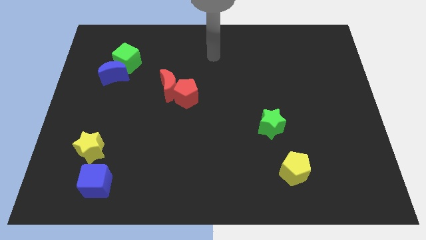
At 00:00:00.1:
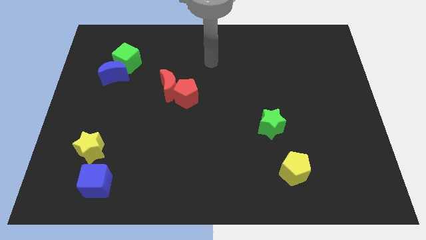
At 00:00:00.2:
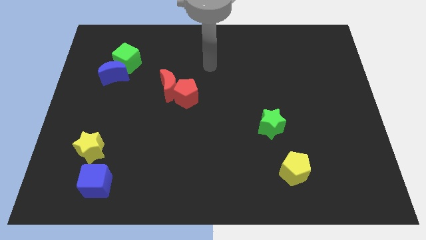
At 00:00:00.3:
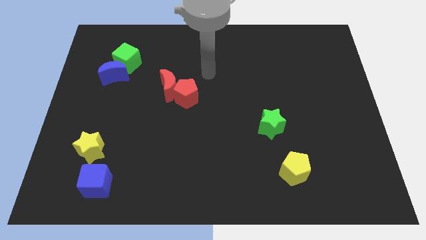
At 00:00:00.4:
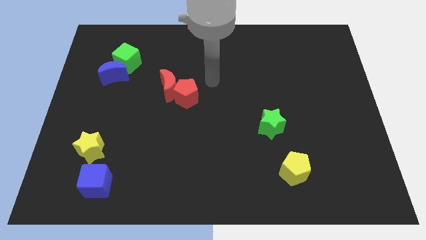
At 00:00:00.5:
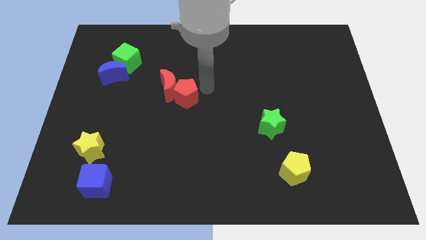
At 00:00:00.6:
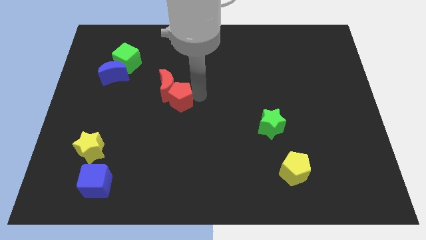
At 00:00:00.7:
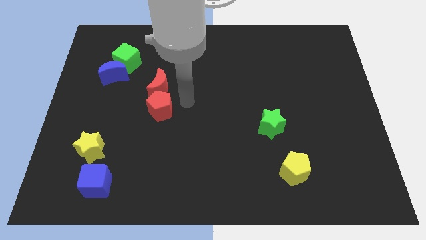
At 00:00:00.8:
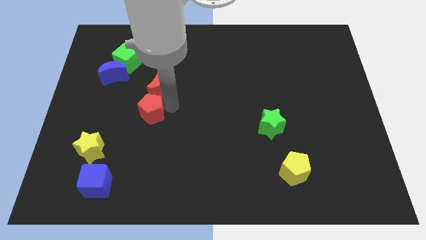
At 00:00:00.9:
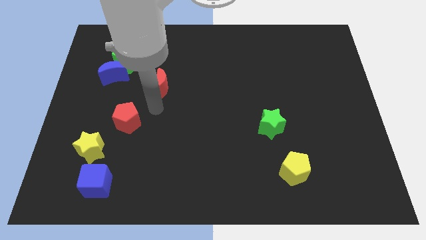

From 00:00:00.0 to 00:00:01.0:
pull the red moon apart from the red pentagon

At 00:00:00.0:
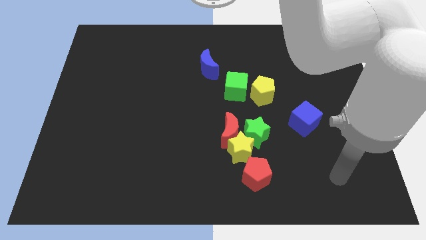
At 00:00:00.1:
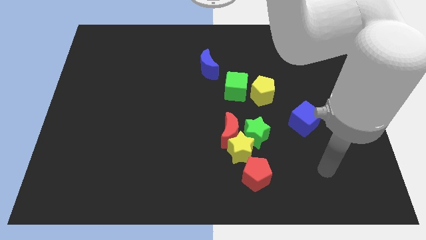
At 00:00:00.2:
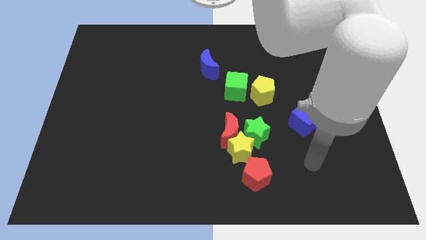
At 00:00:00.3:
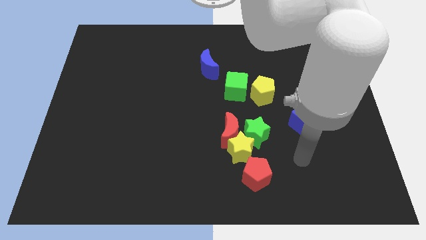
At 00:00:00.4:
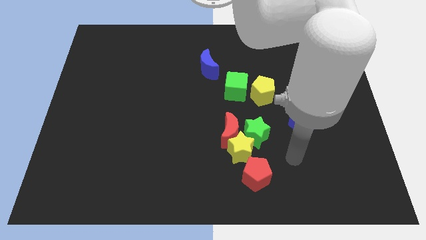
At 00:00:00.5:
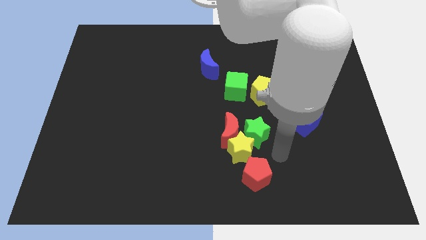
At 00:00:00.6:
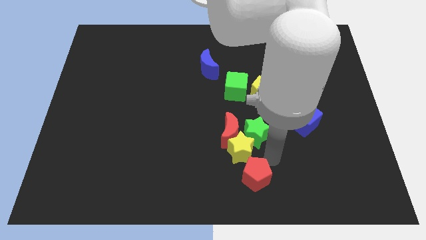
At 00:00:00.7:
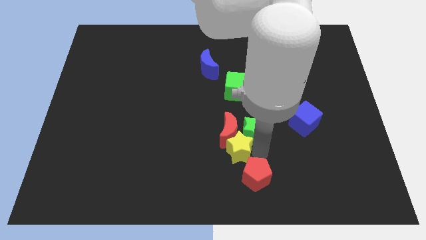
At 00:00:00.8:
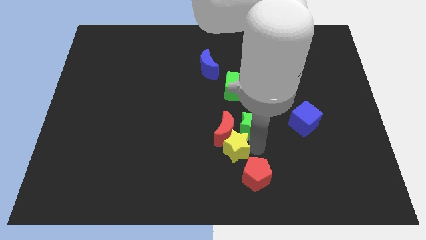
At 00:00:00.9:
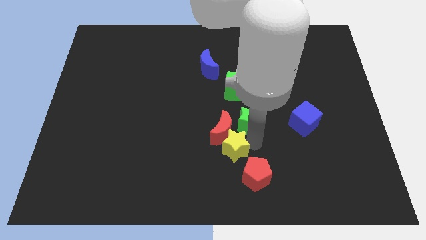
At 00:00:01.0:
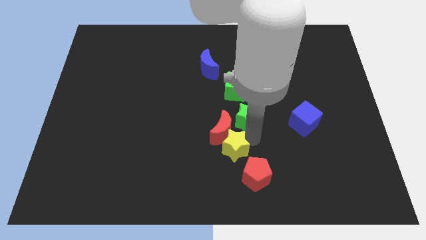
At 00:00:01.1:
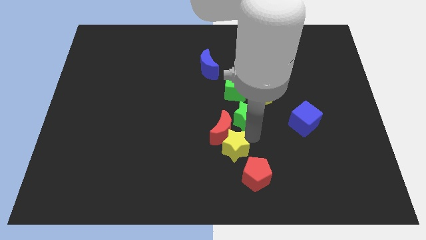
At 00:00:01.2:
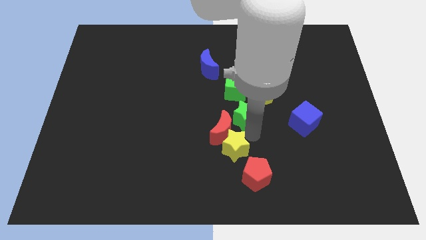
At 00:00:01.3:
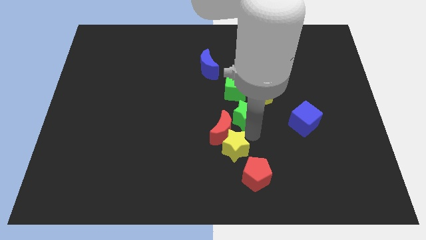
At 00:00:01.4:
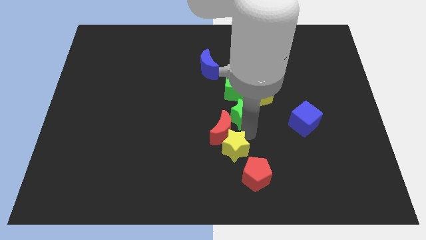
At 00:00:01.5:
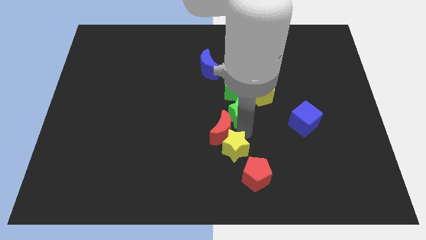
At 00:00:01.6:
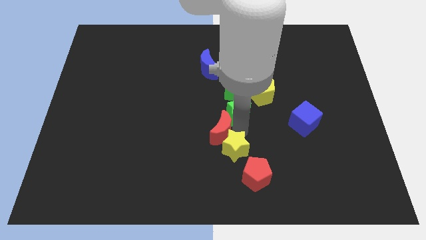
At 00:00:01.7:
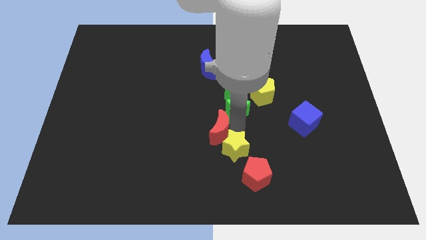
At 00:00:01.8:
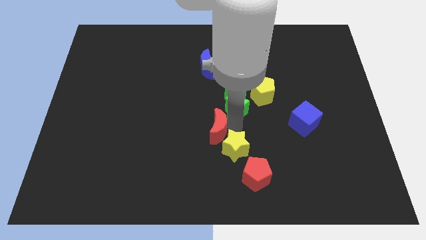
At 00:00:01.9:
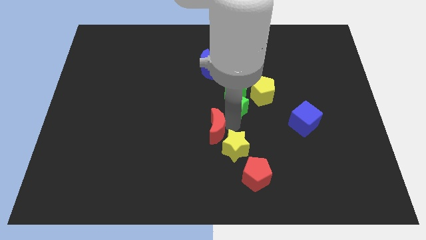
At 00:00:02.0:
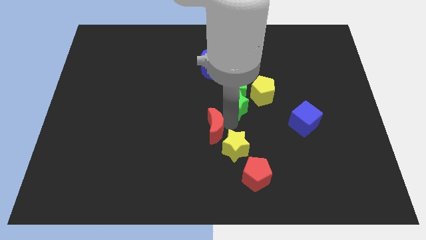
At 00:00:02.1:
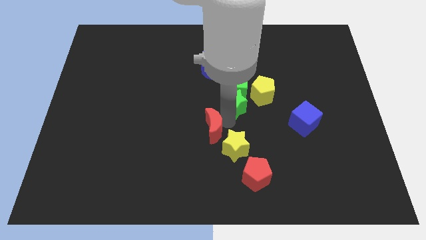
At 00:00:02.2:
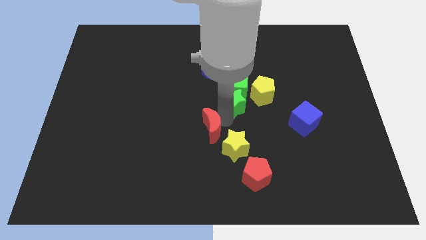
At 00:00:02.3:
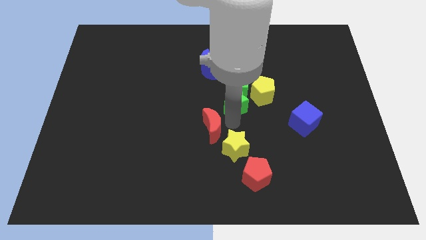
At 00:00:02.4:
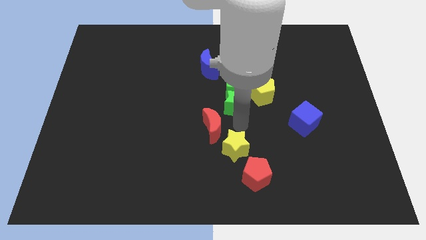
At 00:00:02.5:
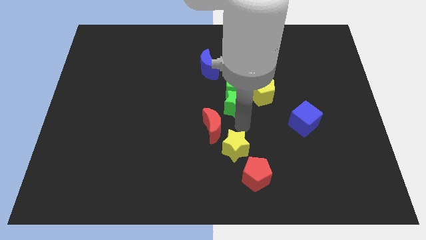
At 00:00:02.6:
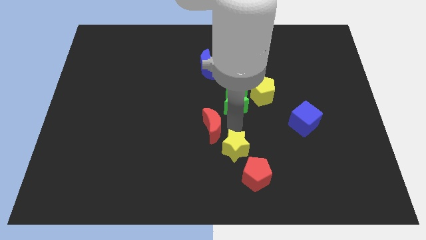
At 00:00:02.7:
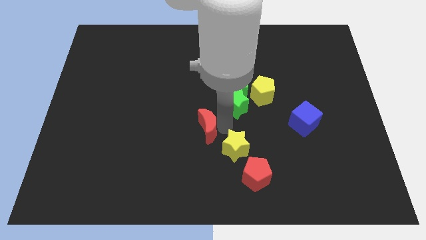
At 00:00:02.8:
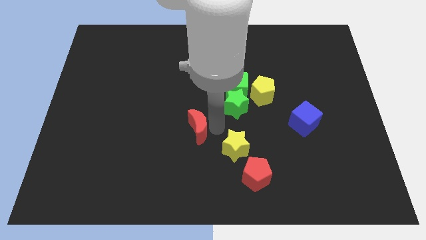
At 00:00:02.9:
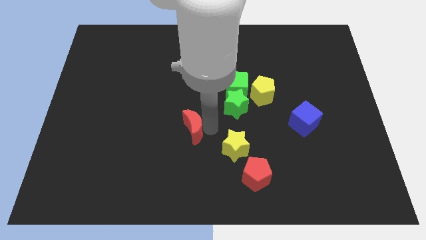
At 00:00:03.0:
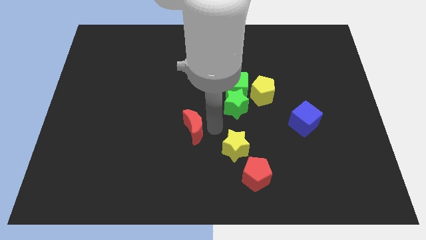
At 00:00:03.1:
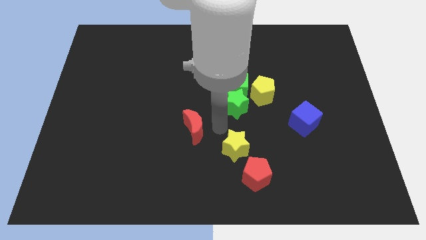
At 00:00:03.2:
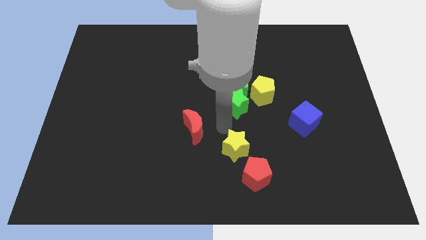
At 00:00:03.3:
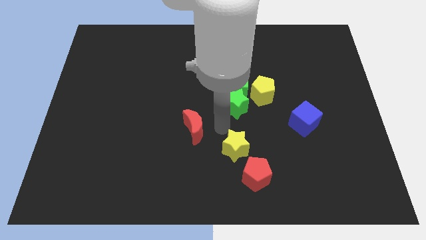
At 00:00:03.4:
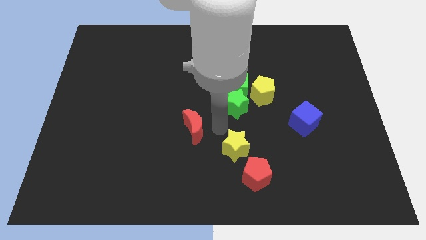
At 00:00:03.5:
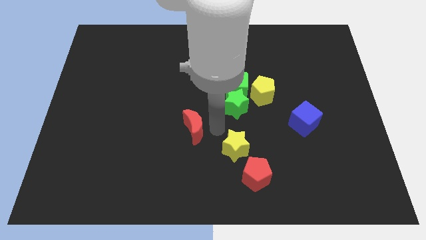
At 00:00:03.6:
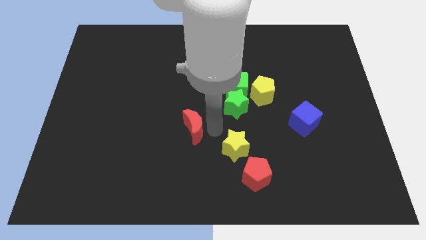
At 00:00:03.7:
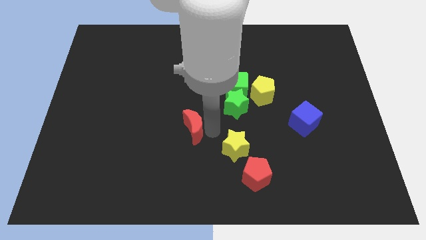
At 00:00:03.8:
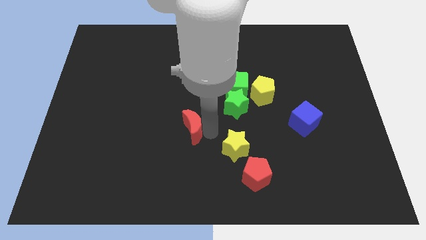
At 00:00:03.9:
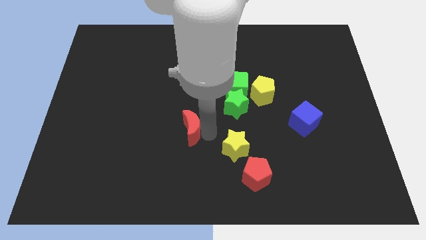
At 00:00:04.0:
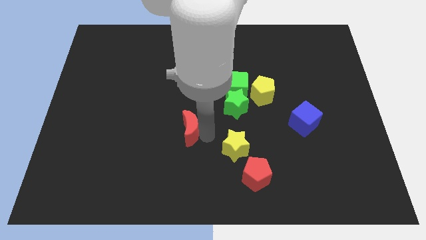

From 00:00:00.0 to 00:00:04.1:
separate the red moon from the yellow star and green star

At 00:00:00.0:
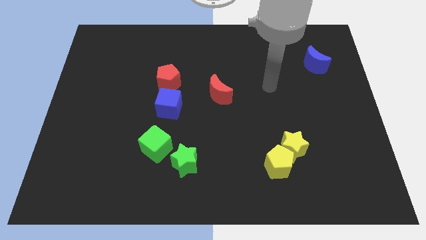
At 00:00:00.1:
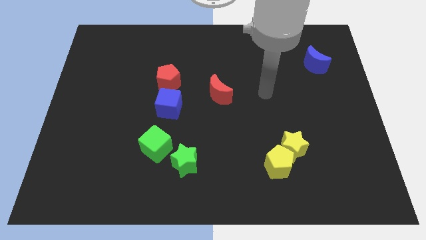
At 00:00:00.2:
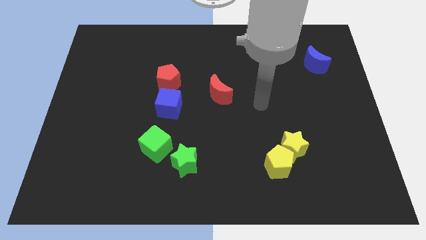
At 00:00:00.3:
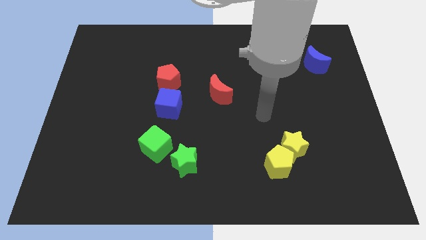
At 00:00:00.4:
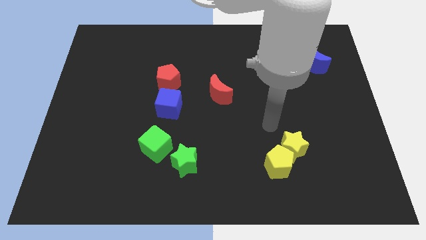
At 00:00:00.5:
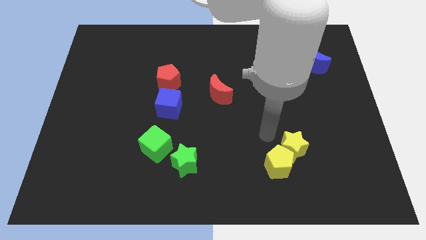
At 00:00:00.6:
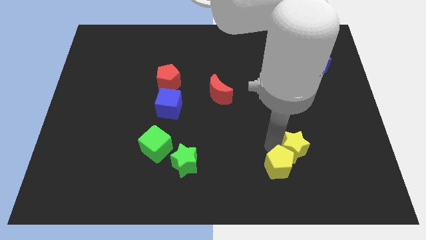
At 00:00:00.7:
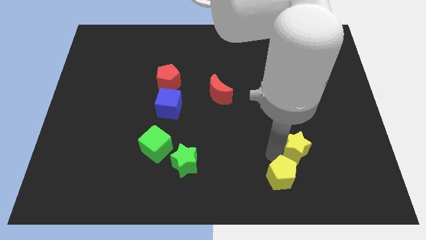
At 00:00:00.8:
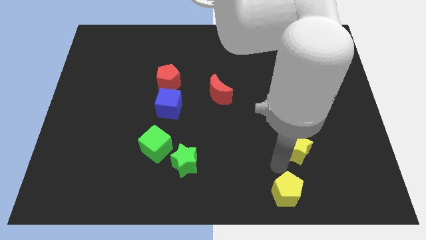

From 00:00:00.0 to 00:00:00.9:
move the yellow star away from the yellow pentagon

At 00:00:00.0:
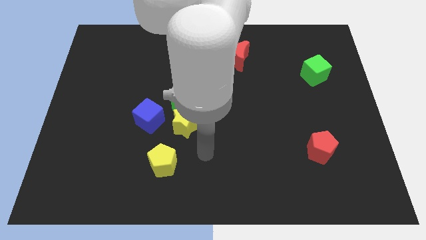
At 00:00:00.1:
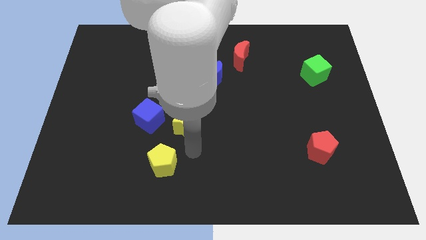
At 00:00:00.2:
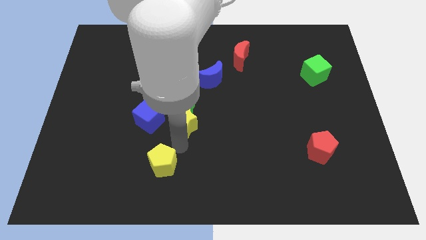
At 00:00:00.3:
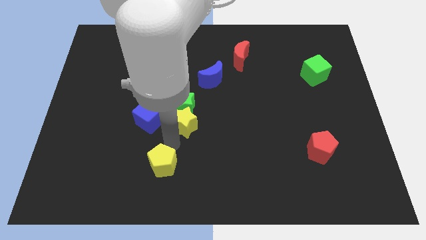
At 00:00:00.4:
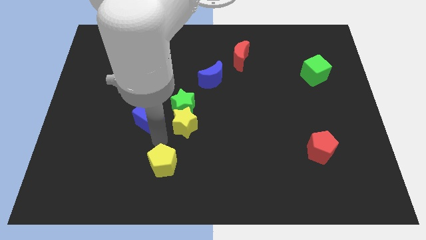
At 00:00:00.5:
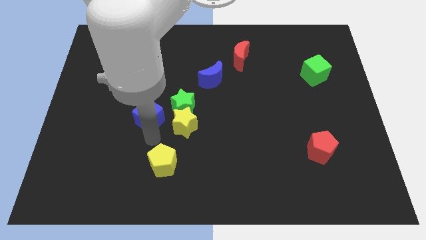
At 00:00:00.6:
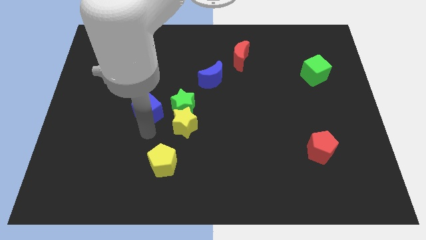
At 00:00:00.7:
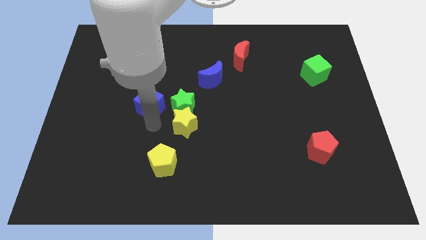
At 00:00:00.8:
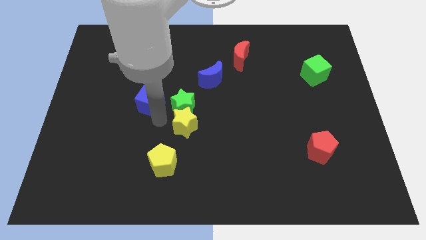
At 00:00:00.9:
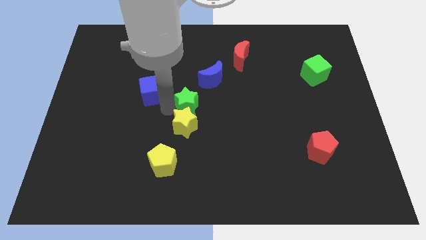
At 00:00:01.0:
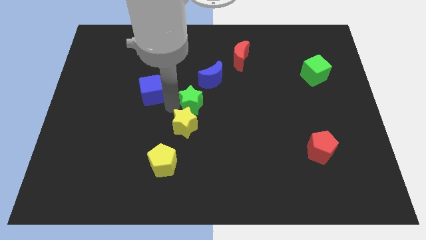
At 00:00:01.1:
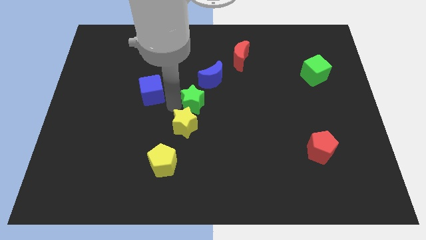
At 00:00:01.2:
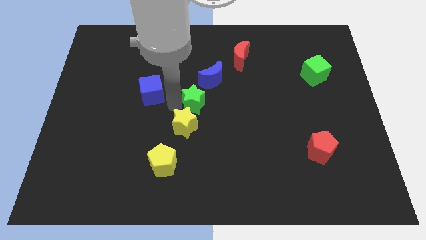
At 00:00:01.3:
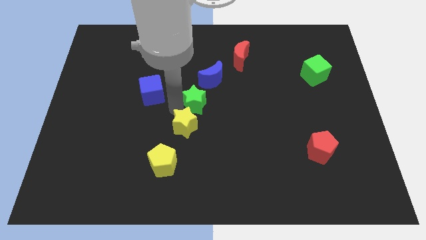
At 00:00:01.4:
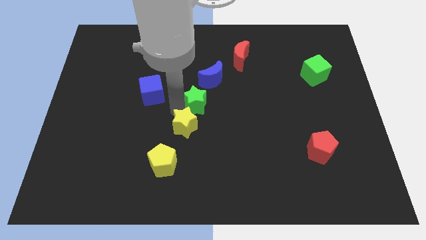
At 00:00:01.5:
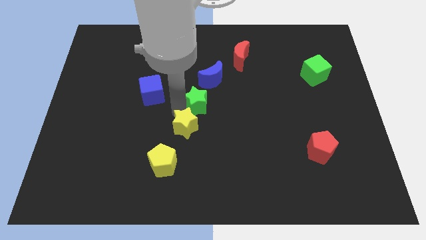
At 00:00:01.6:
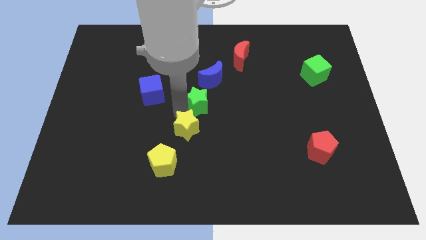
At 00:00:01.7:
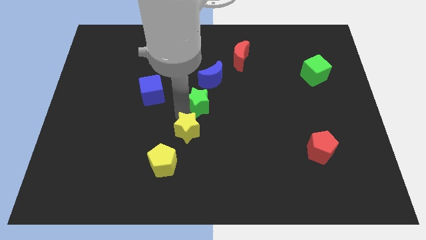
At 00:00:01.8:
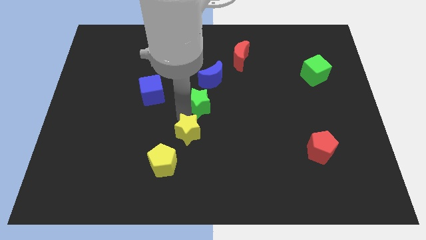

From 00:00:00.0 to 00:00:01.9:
move the yellow star away from the green star and blue cube

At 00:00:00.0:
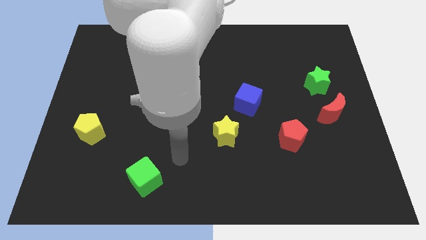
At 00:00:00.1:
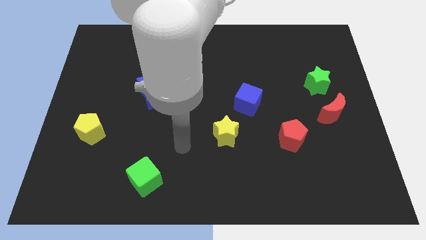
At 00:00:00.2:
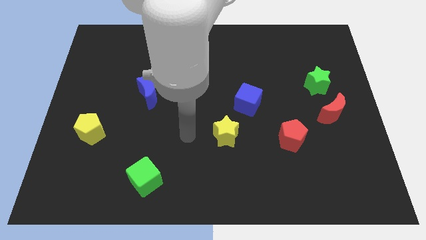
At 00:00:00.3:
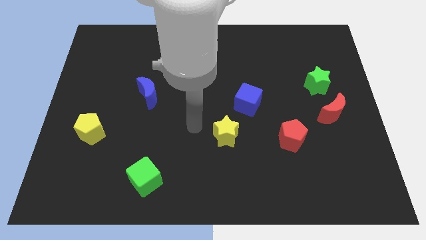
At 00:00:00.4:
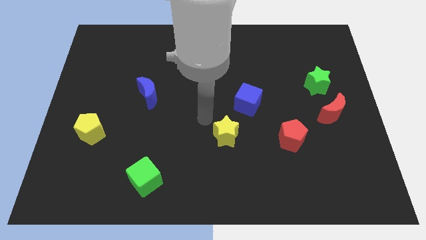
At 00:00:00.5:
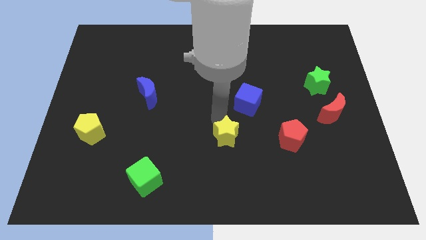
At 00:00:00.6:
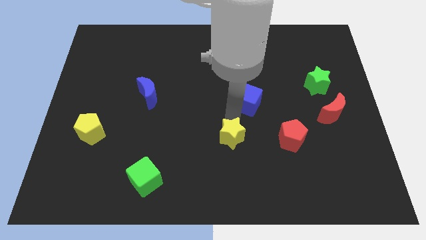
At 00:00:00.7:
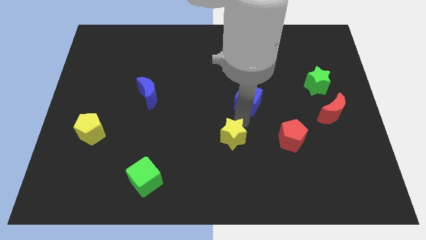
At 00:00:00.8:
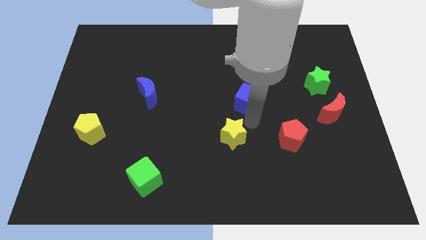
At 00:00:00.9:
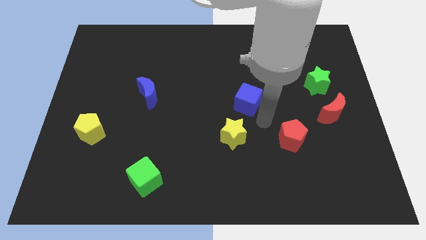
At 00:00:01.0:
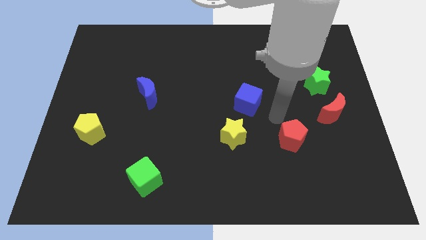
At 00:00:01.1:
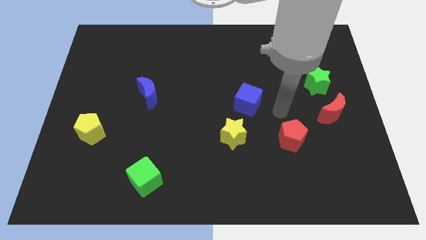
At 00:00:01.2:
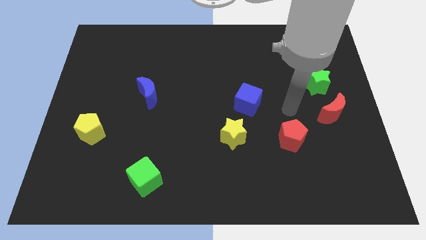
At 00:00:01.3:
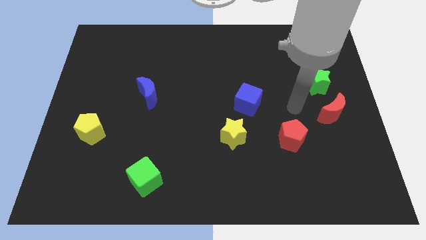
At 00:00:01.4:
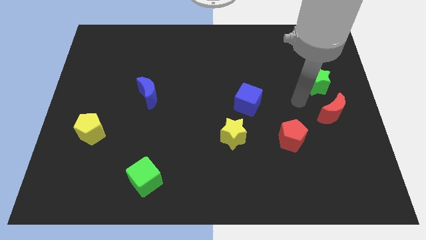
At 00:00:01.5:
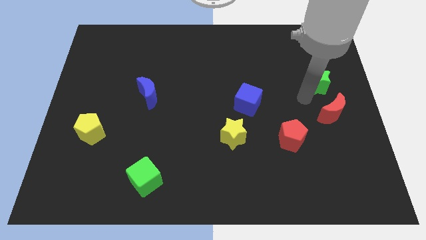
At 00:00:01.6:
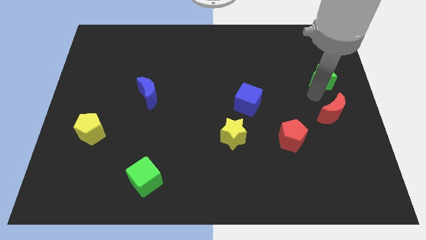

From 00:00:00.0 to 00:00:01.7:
move the red moon away from the green star
